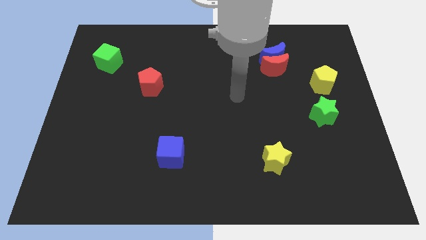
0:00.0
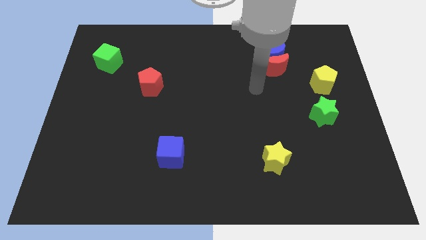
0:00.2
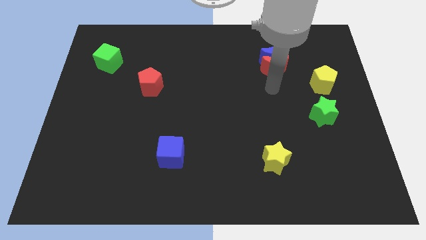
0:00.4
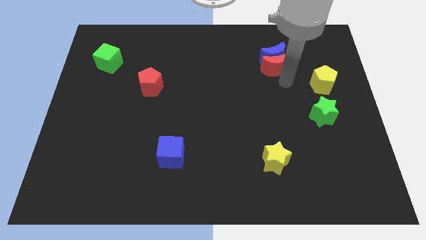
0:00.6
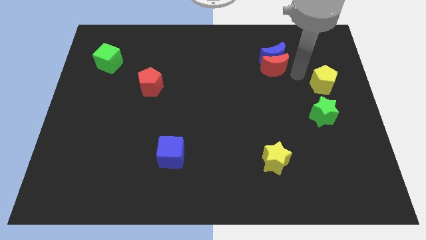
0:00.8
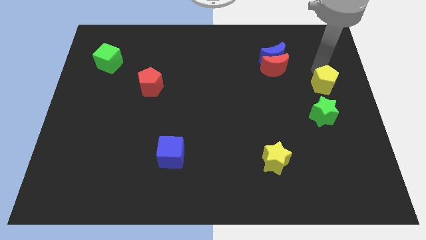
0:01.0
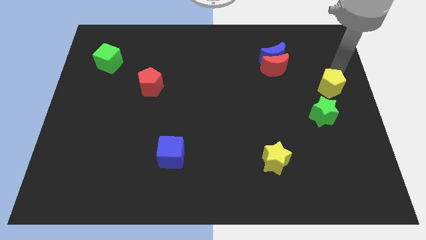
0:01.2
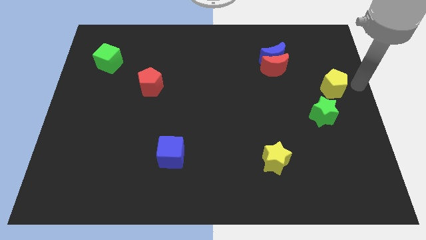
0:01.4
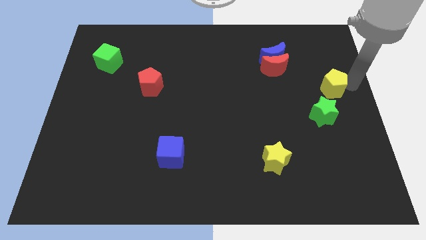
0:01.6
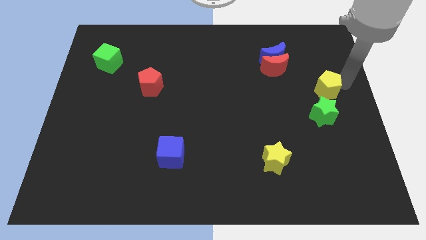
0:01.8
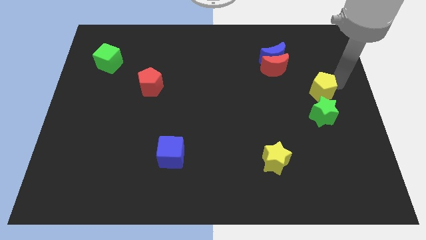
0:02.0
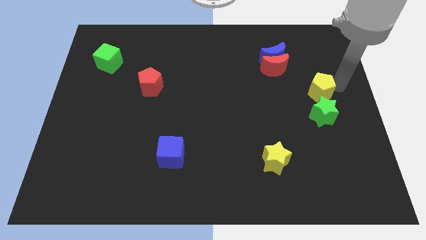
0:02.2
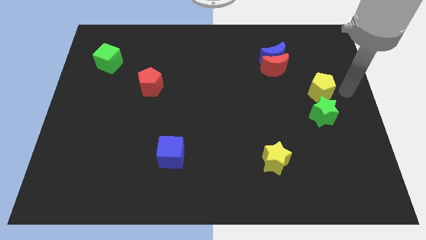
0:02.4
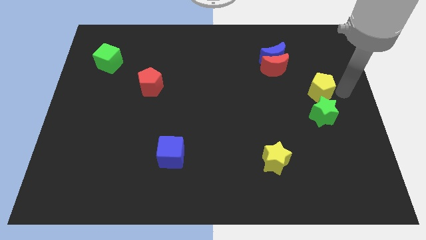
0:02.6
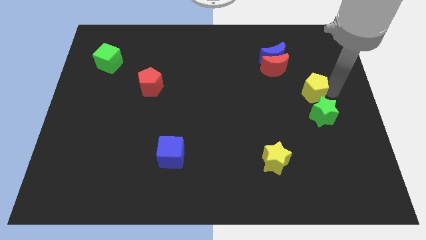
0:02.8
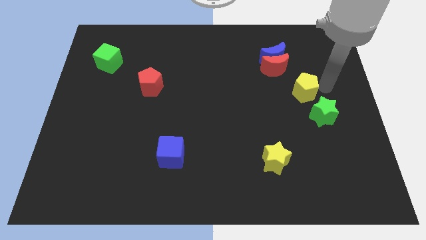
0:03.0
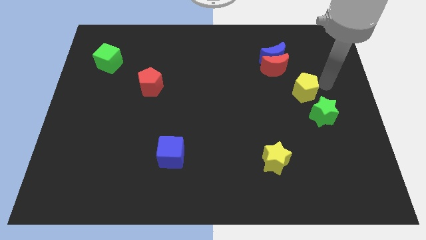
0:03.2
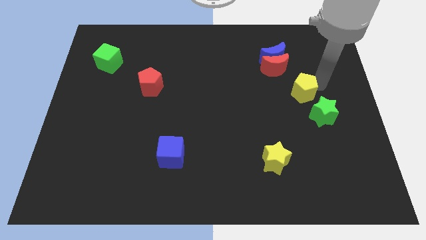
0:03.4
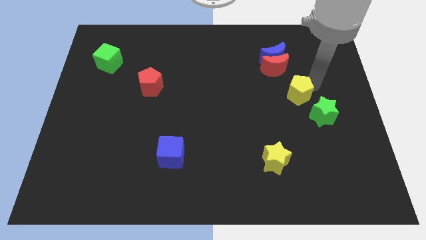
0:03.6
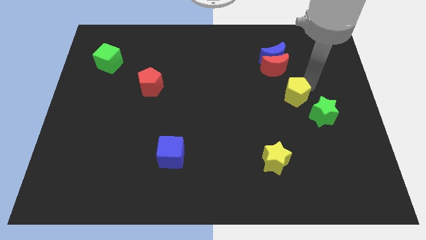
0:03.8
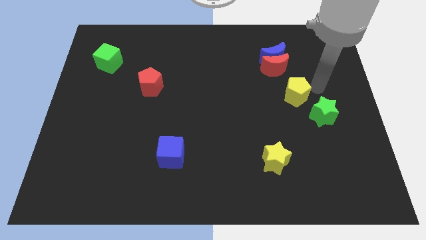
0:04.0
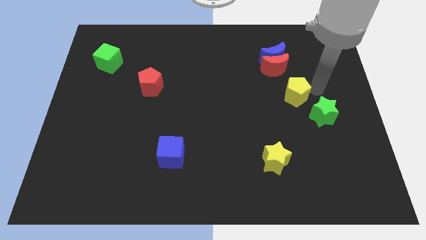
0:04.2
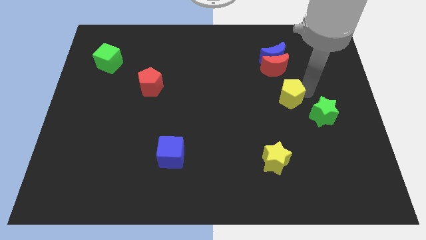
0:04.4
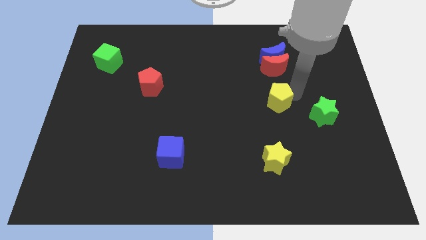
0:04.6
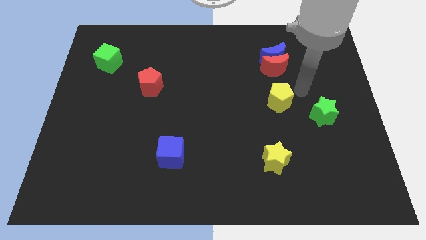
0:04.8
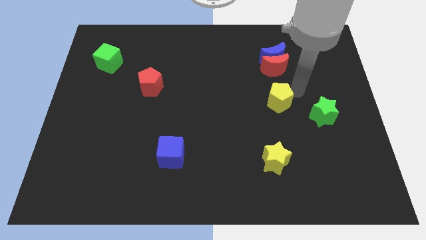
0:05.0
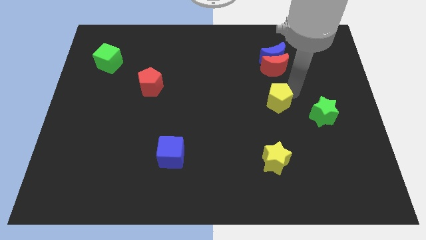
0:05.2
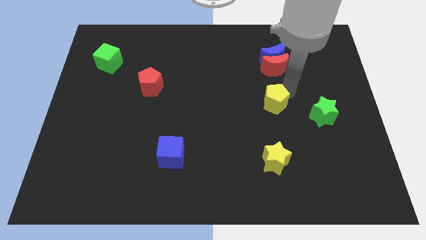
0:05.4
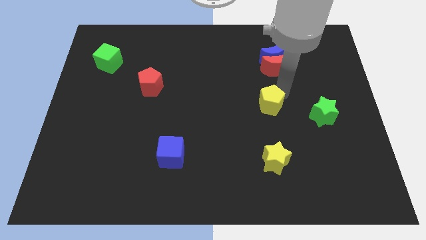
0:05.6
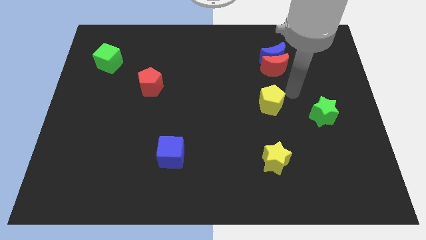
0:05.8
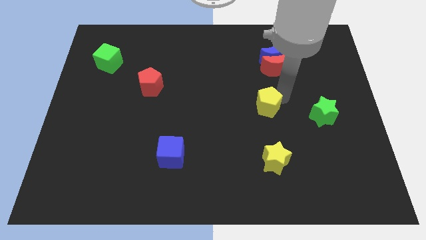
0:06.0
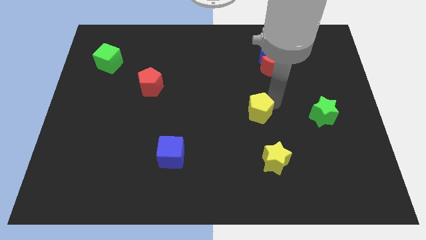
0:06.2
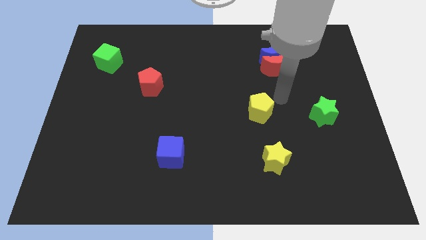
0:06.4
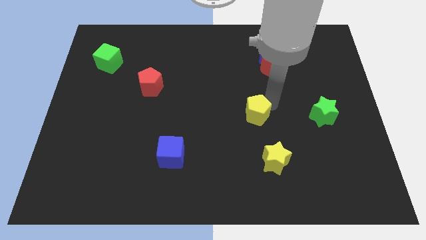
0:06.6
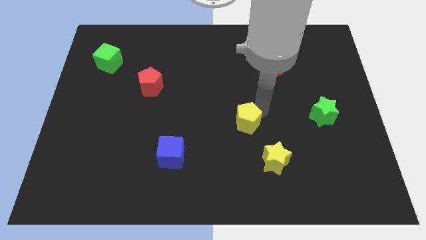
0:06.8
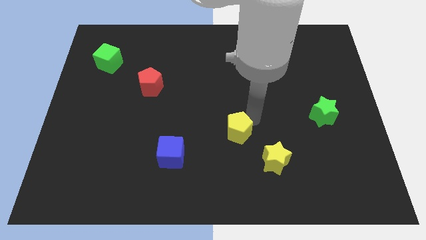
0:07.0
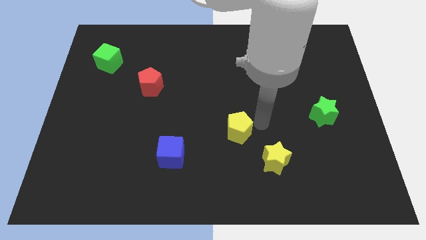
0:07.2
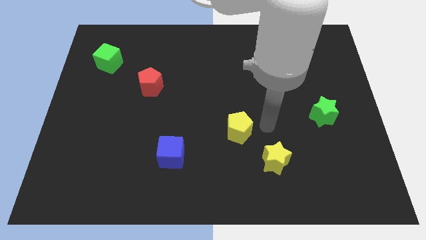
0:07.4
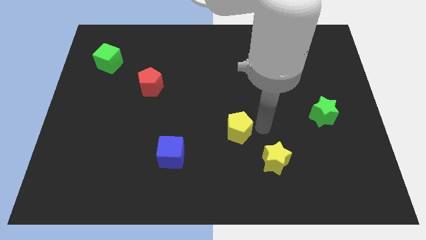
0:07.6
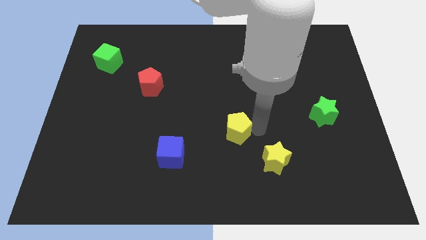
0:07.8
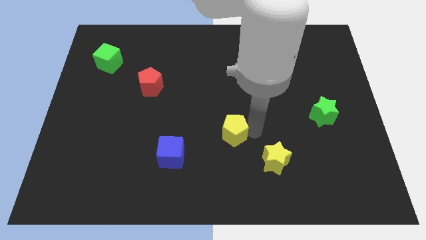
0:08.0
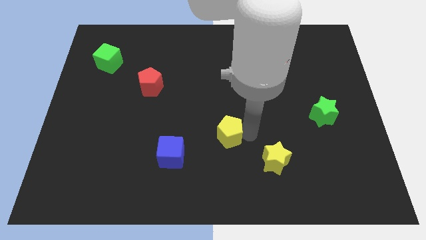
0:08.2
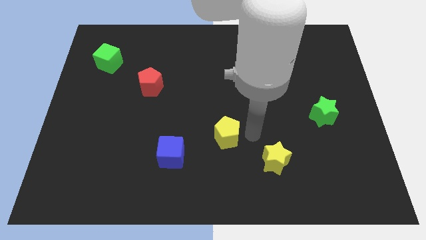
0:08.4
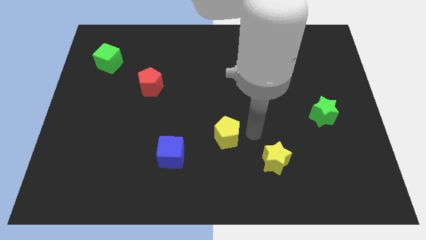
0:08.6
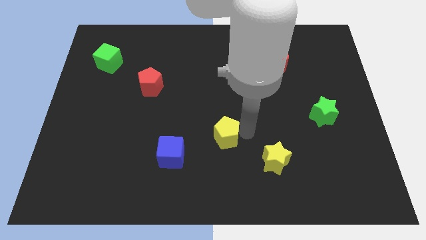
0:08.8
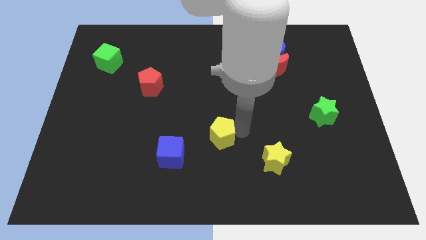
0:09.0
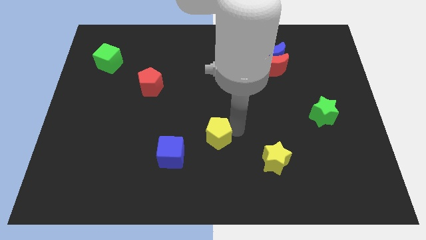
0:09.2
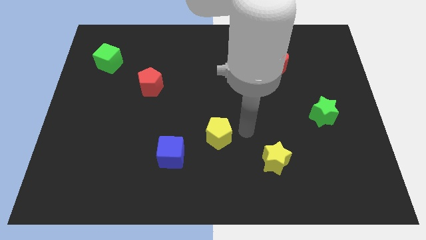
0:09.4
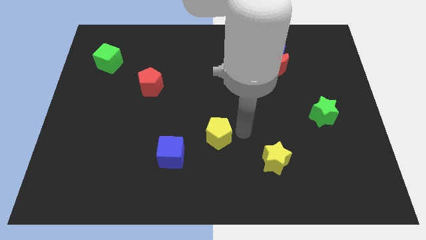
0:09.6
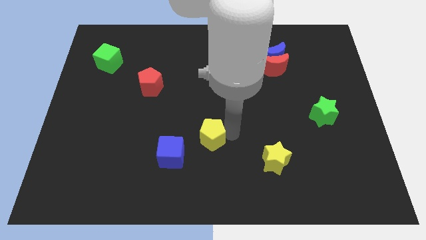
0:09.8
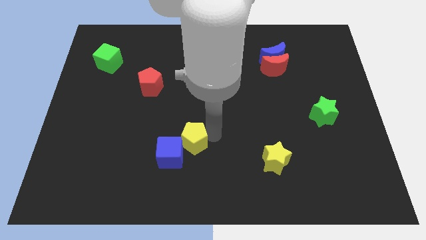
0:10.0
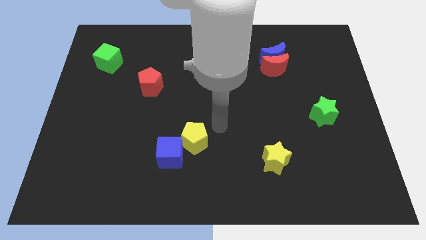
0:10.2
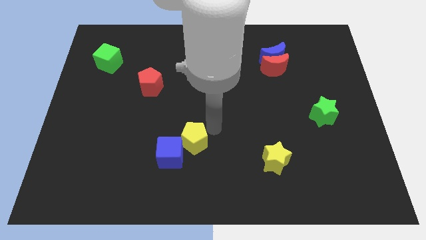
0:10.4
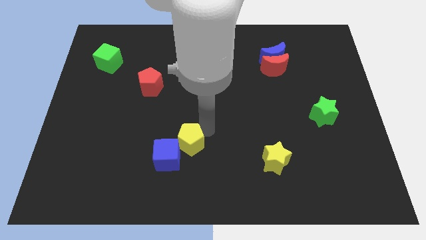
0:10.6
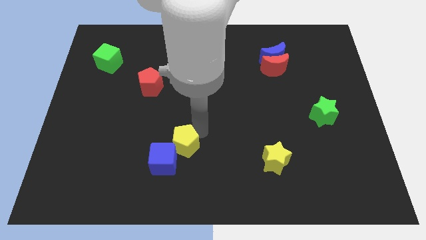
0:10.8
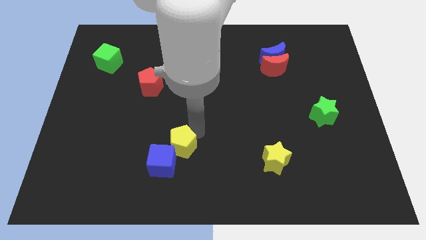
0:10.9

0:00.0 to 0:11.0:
put the yellow pentagon next to the blue cube

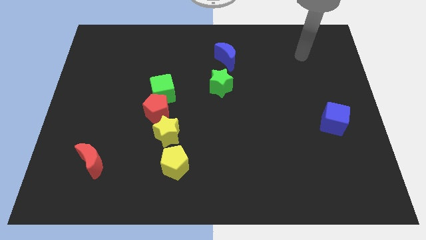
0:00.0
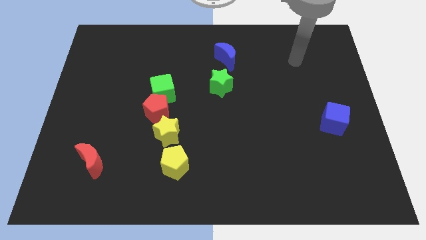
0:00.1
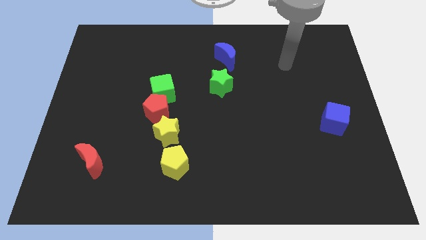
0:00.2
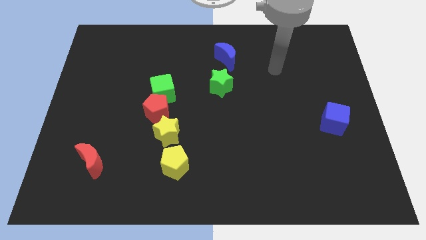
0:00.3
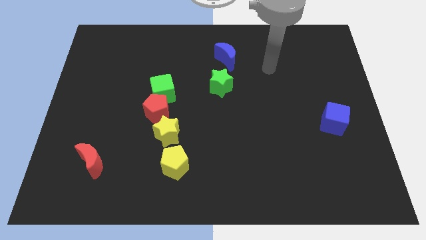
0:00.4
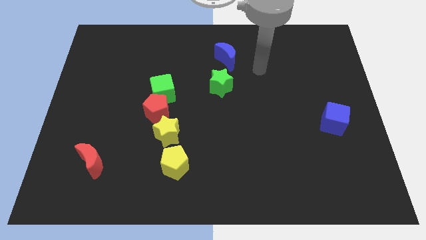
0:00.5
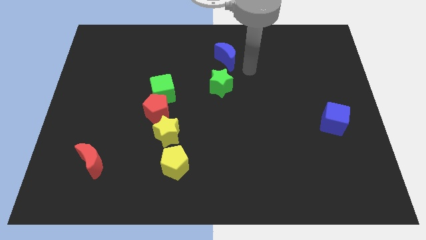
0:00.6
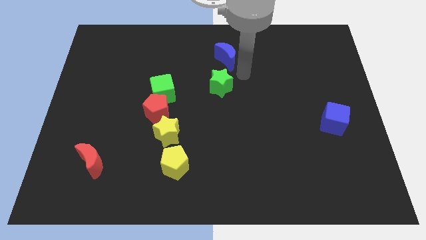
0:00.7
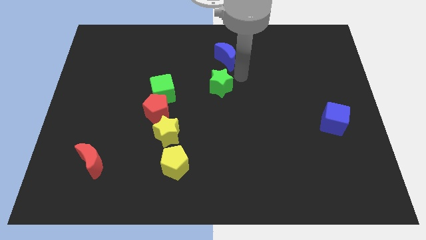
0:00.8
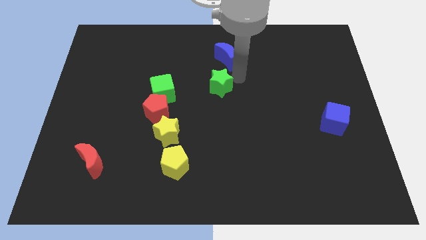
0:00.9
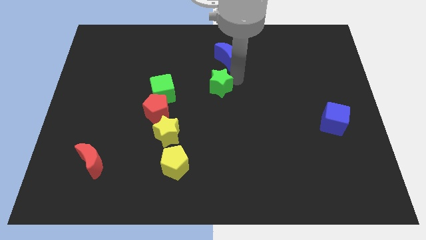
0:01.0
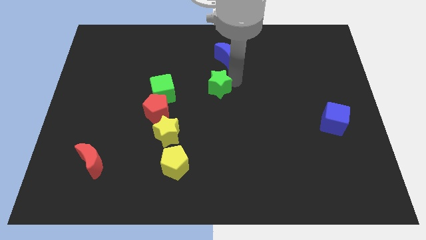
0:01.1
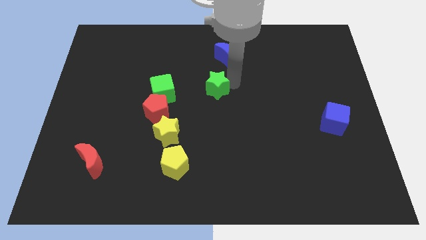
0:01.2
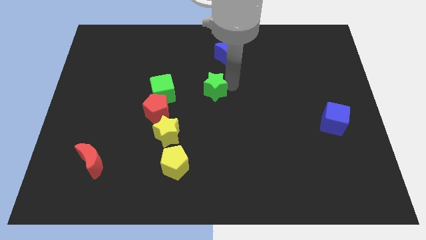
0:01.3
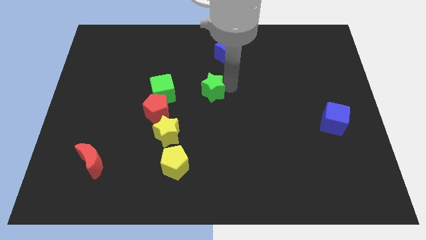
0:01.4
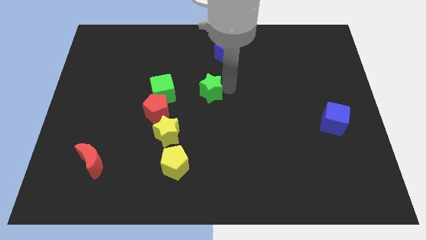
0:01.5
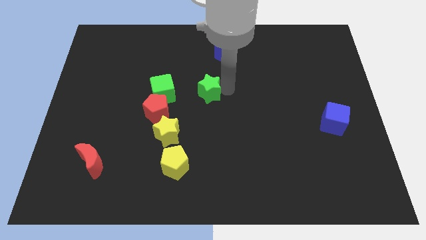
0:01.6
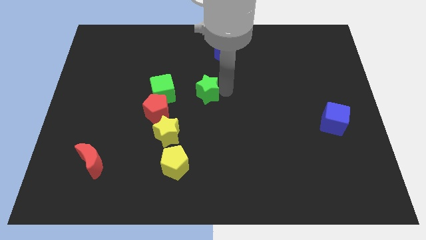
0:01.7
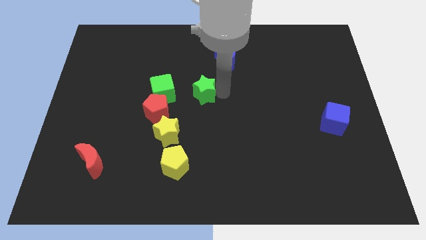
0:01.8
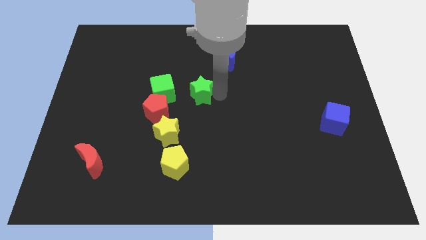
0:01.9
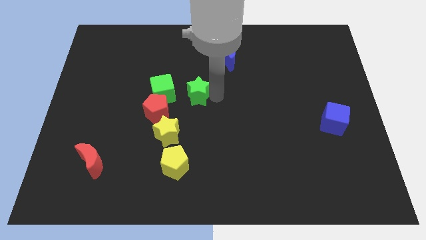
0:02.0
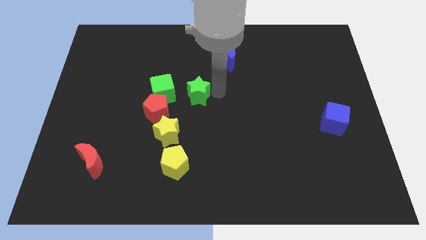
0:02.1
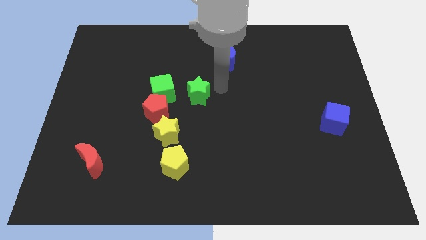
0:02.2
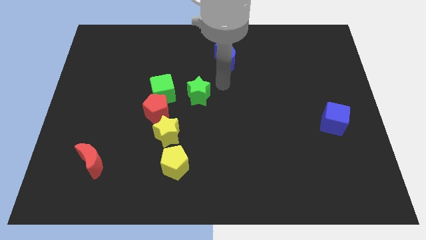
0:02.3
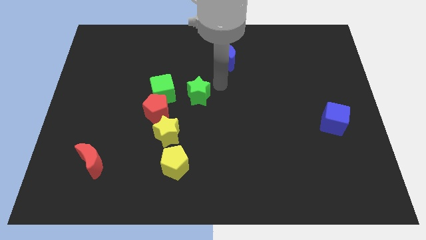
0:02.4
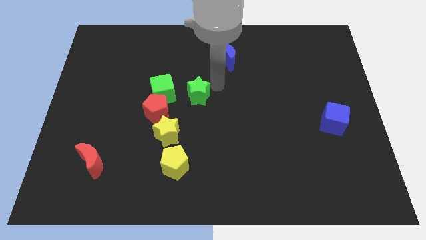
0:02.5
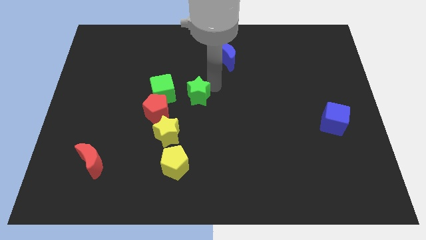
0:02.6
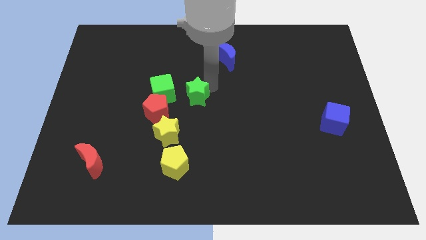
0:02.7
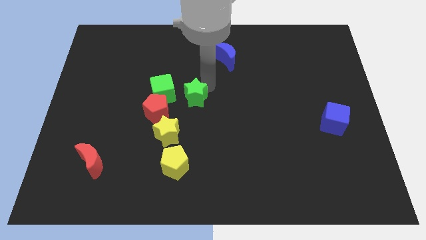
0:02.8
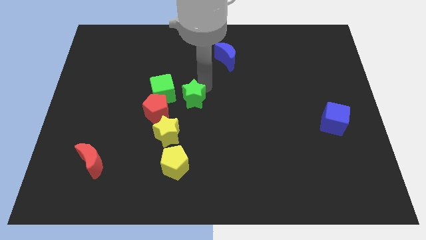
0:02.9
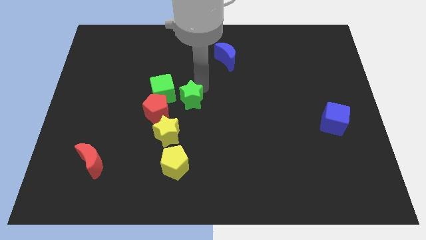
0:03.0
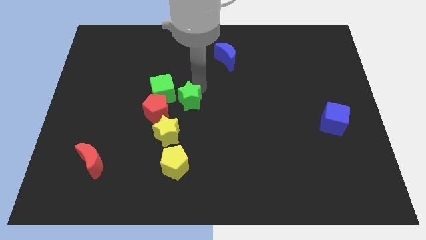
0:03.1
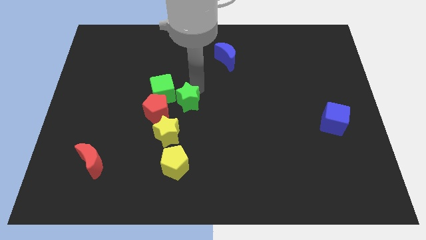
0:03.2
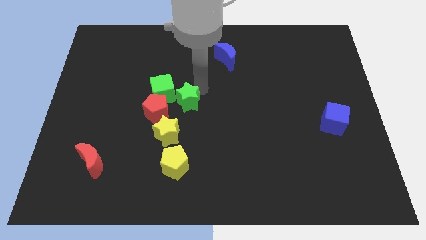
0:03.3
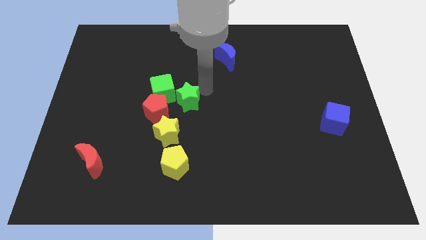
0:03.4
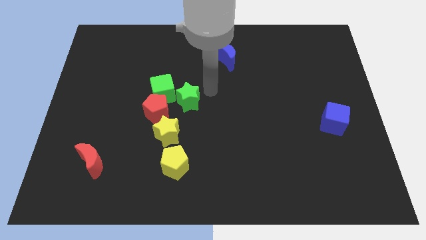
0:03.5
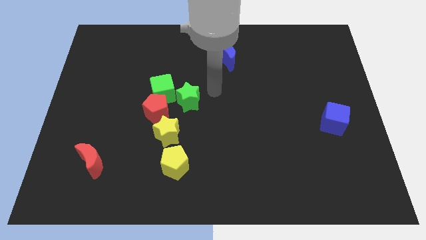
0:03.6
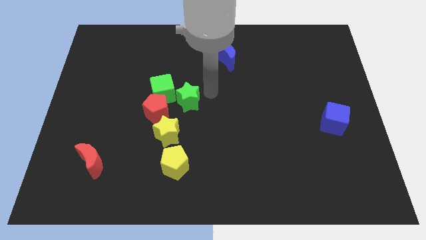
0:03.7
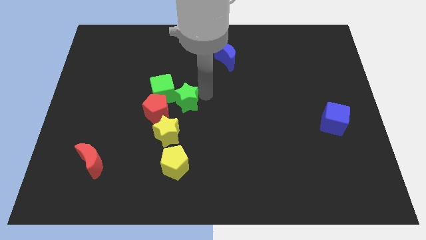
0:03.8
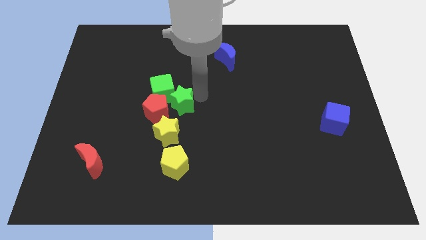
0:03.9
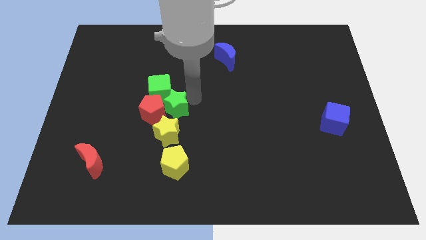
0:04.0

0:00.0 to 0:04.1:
move the green star close to the red pentagon
